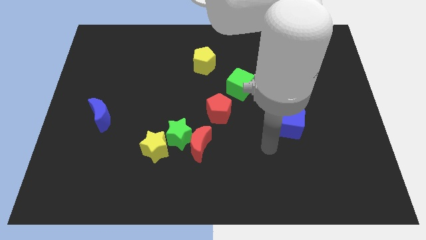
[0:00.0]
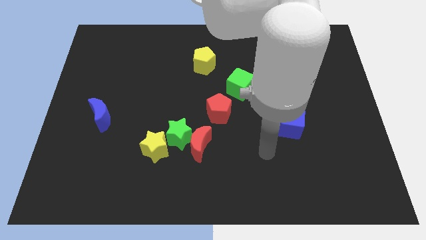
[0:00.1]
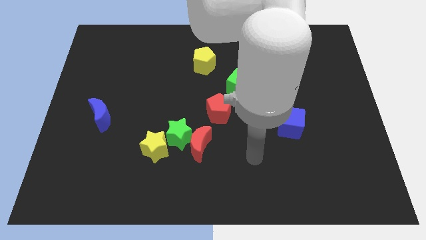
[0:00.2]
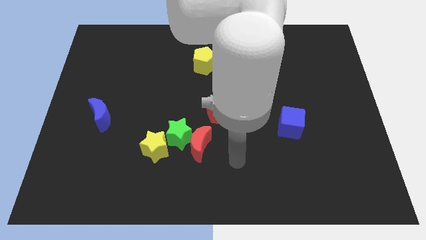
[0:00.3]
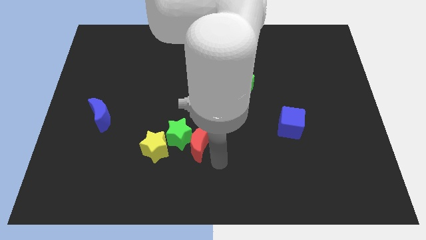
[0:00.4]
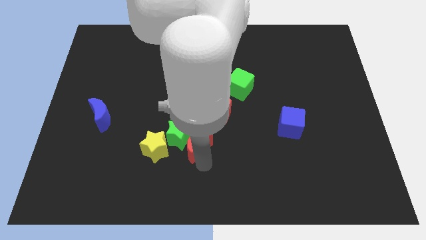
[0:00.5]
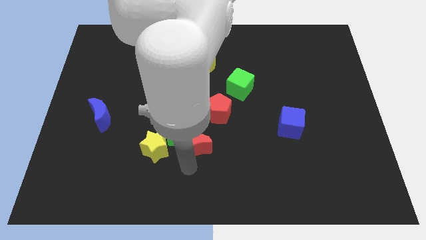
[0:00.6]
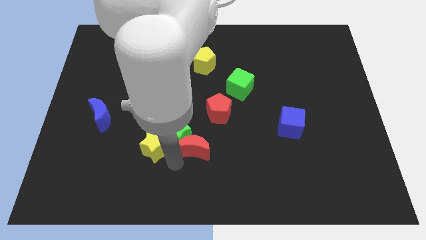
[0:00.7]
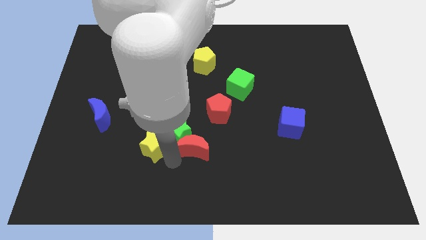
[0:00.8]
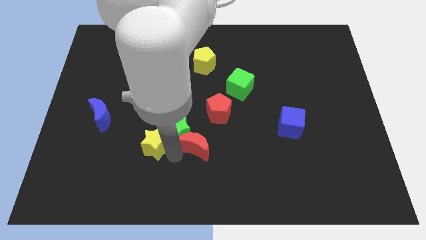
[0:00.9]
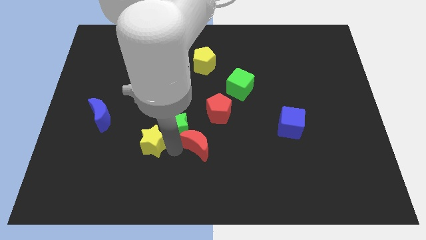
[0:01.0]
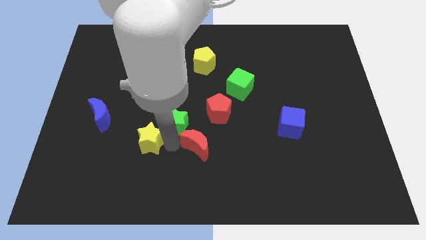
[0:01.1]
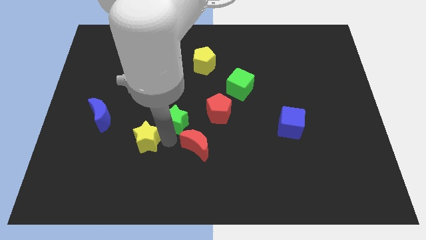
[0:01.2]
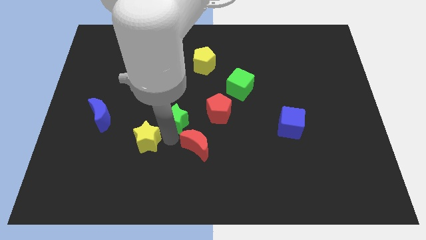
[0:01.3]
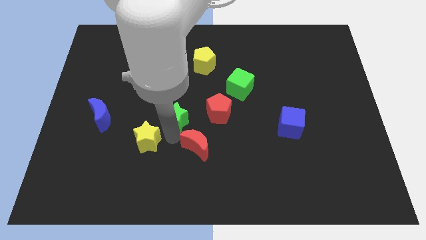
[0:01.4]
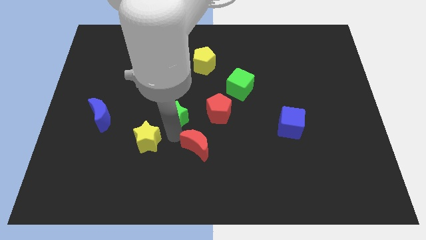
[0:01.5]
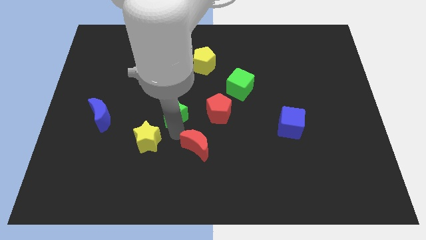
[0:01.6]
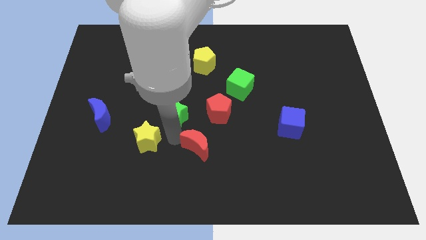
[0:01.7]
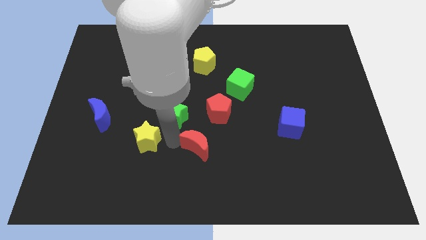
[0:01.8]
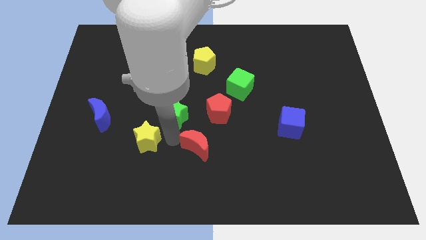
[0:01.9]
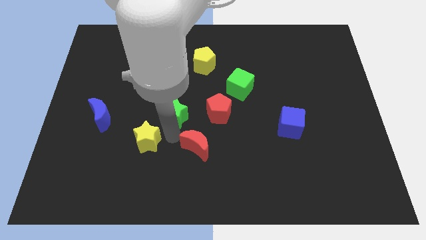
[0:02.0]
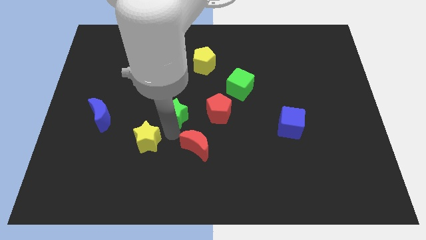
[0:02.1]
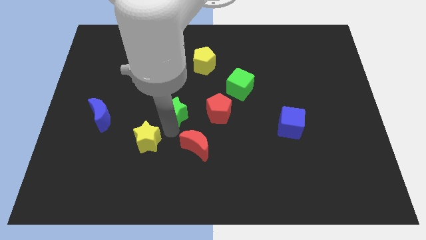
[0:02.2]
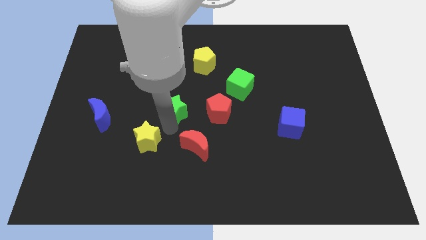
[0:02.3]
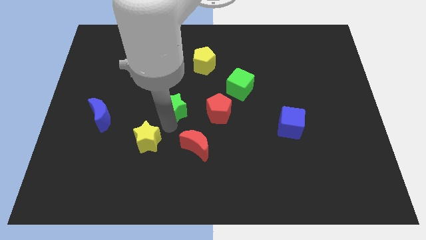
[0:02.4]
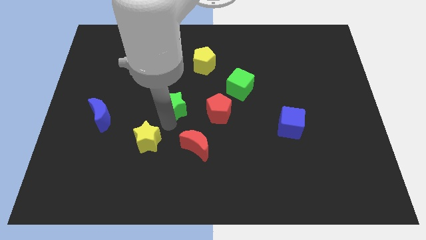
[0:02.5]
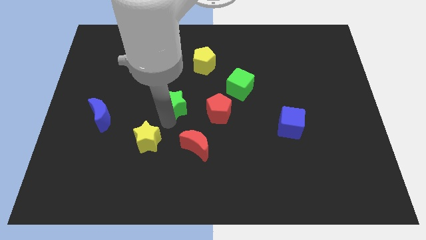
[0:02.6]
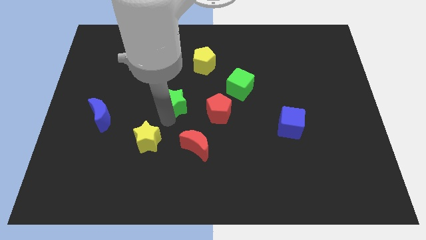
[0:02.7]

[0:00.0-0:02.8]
separate the green star from the red moon and yellow star

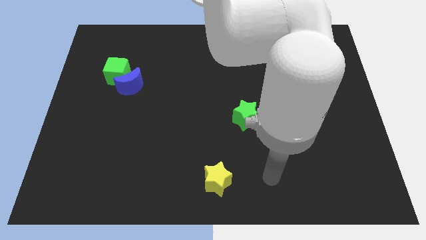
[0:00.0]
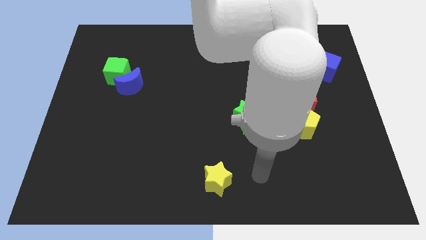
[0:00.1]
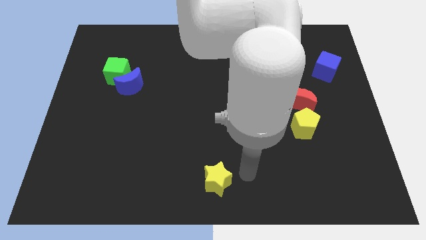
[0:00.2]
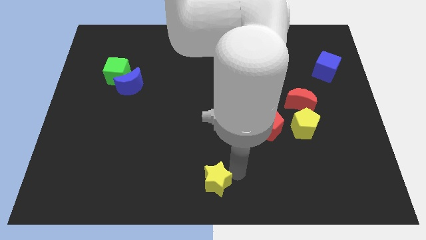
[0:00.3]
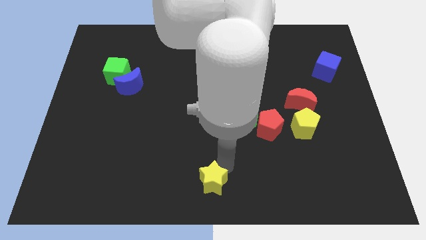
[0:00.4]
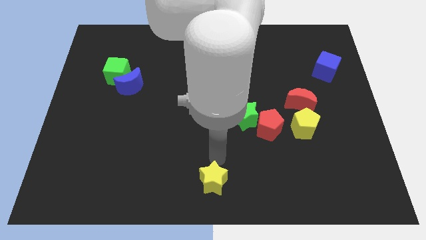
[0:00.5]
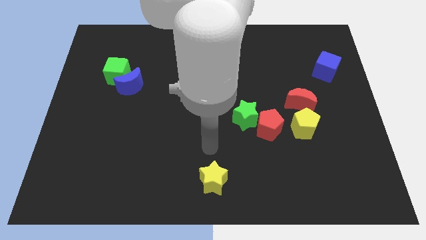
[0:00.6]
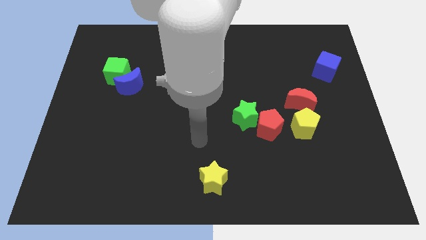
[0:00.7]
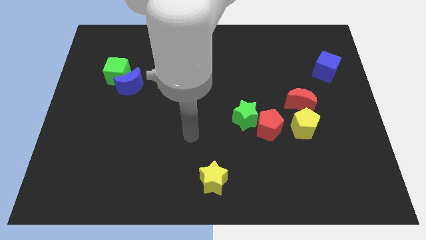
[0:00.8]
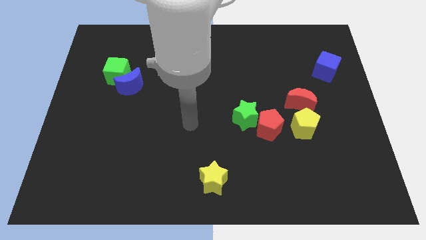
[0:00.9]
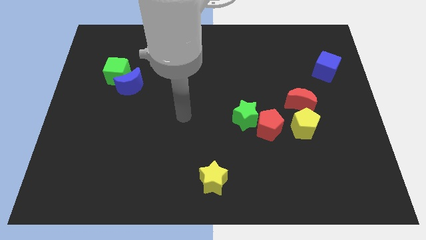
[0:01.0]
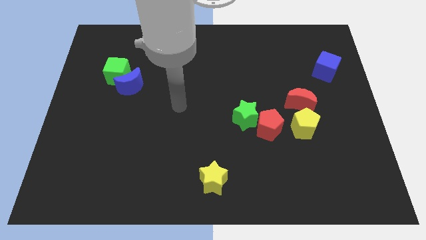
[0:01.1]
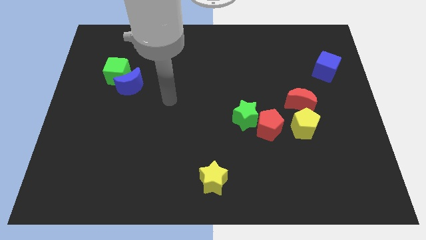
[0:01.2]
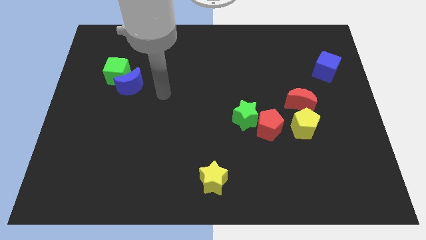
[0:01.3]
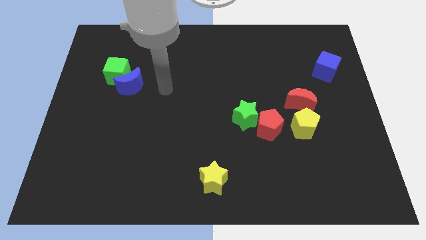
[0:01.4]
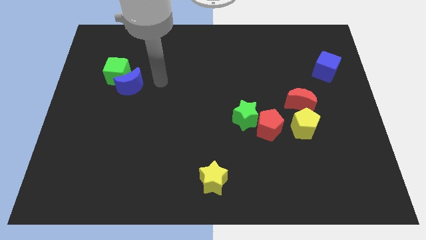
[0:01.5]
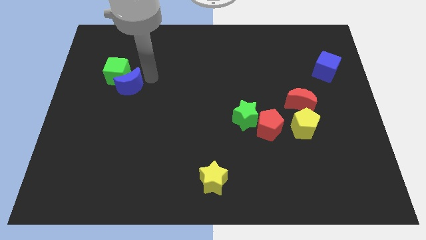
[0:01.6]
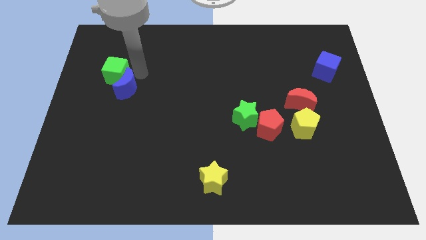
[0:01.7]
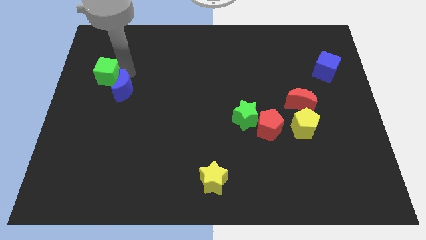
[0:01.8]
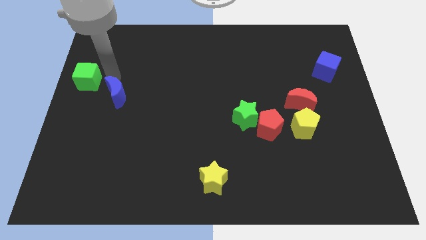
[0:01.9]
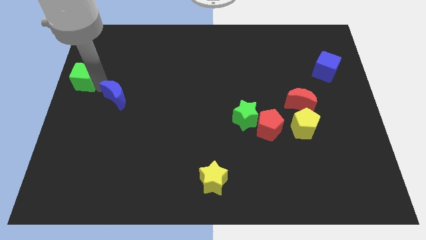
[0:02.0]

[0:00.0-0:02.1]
pull the blue moon apart from the green cube

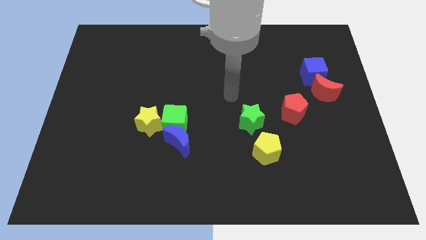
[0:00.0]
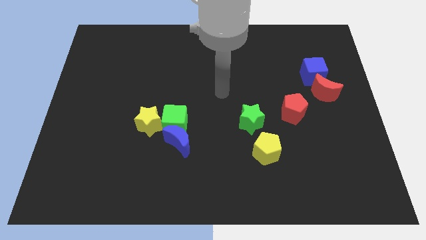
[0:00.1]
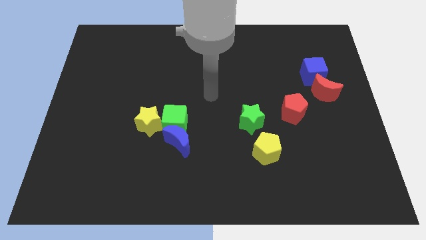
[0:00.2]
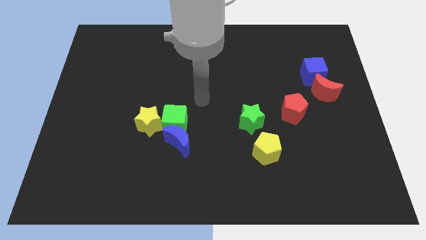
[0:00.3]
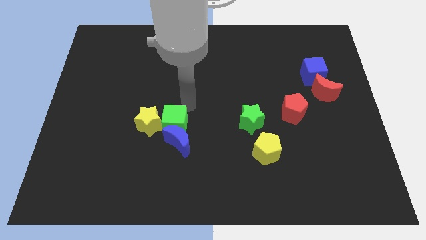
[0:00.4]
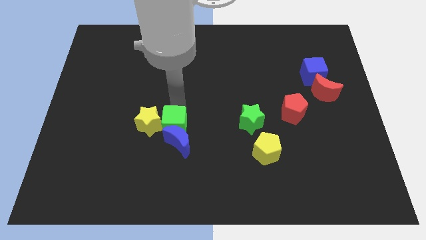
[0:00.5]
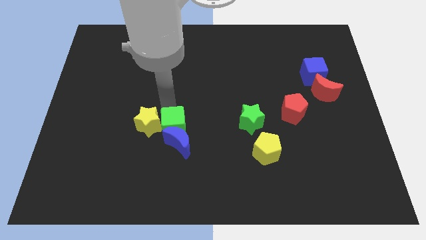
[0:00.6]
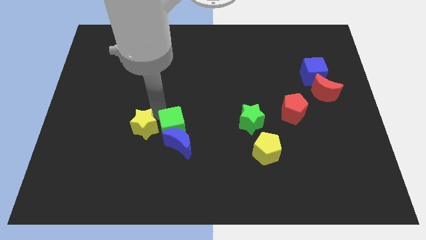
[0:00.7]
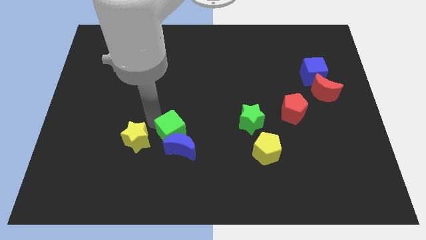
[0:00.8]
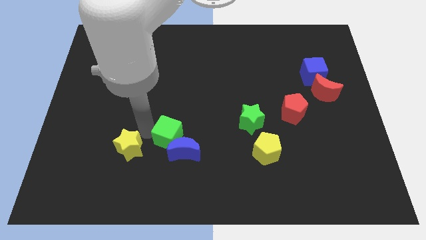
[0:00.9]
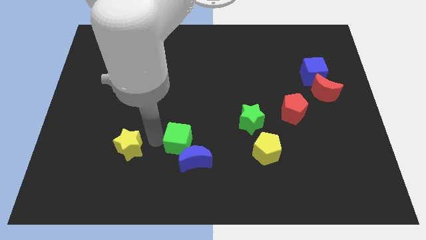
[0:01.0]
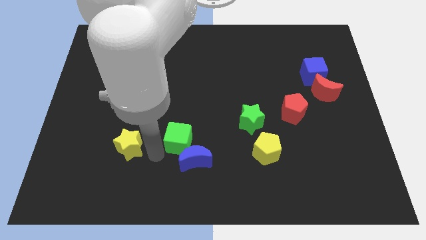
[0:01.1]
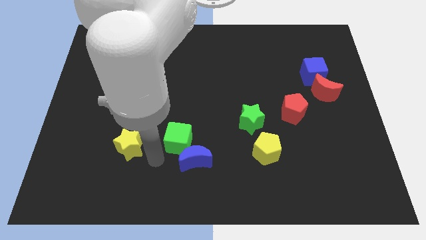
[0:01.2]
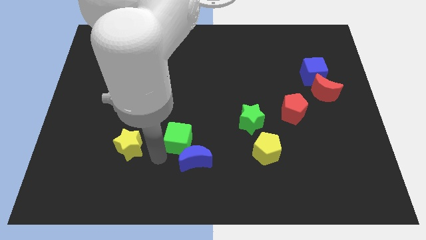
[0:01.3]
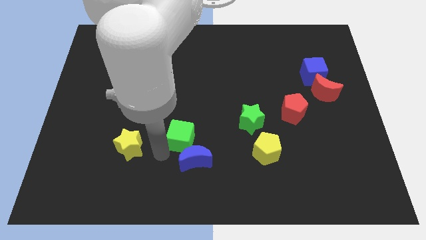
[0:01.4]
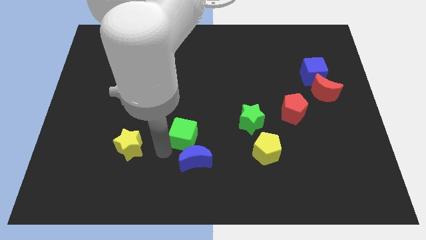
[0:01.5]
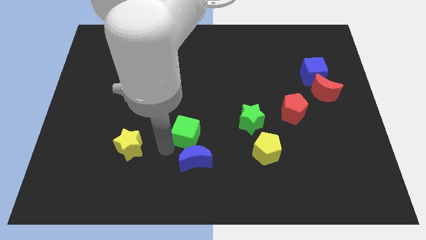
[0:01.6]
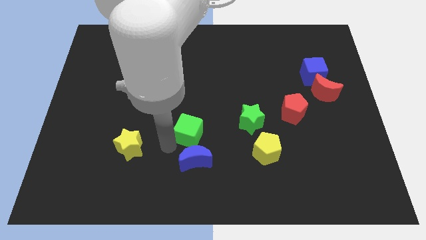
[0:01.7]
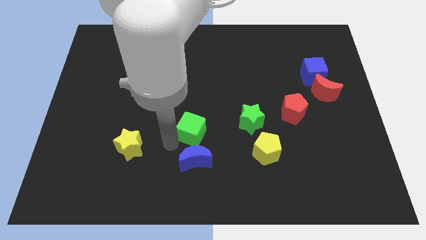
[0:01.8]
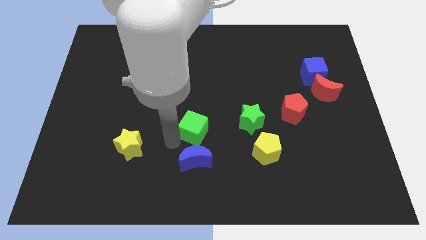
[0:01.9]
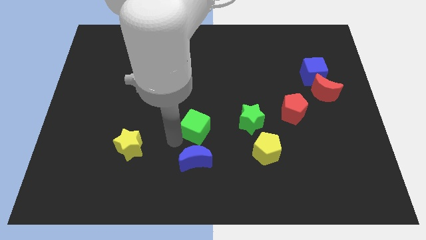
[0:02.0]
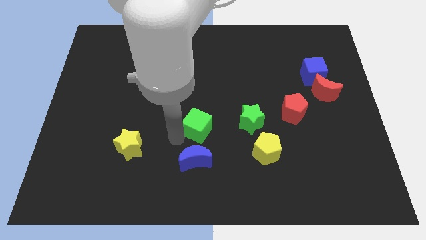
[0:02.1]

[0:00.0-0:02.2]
pull the green cube apart from the blue moon and yellow star

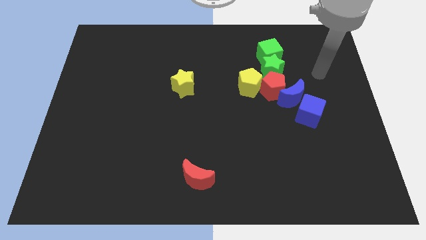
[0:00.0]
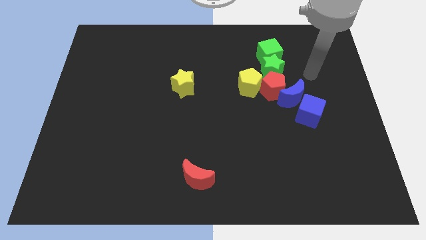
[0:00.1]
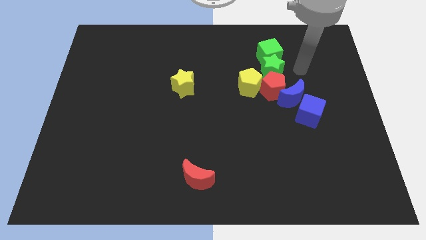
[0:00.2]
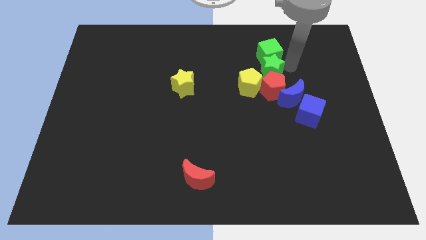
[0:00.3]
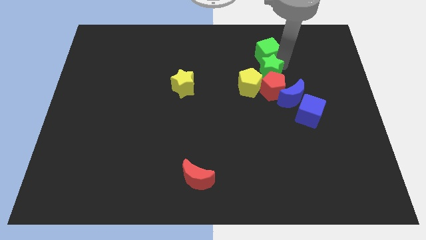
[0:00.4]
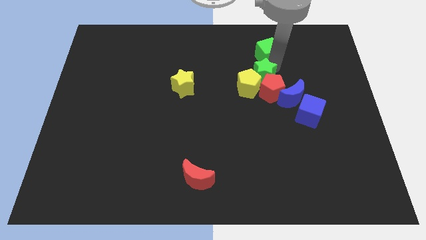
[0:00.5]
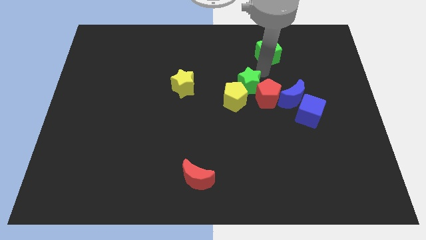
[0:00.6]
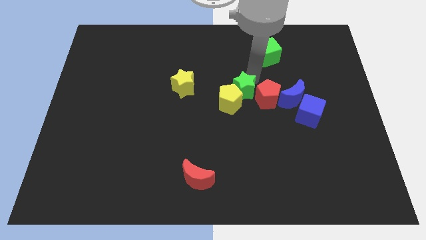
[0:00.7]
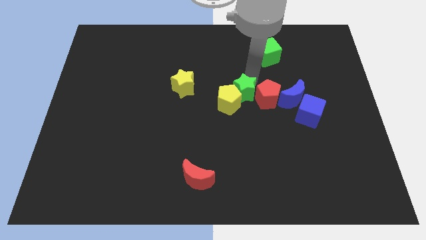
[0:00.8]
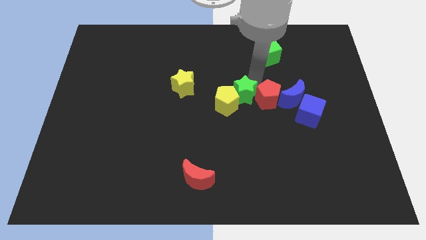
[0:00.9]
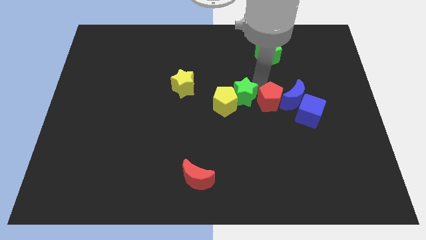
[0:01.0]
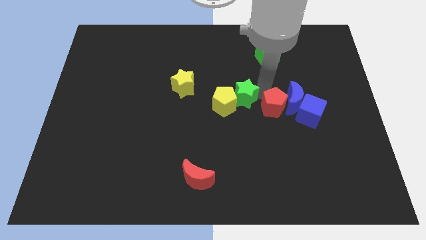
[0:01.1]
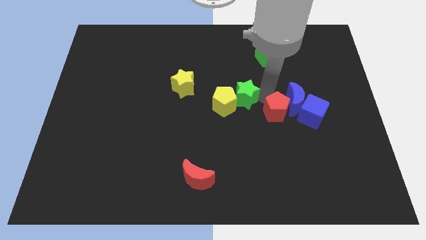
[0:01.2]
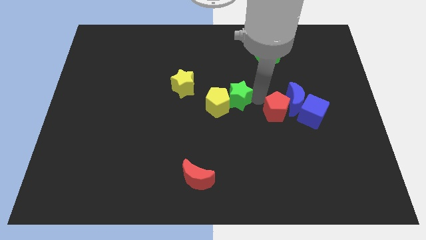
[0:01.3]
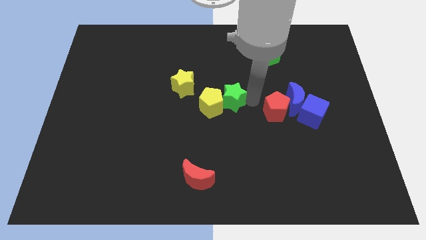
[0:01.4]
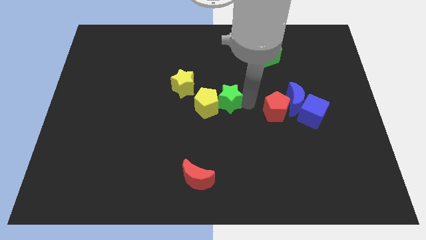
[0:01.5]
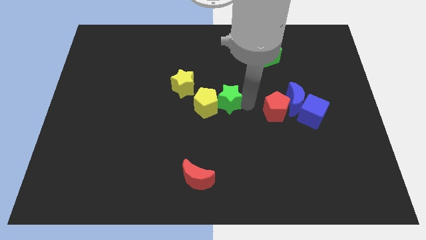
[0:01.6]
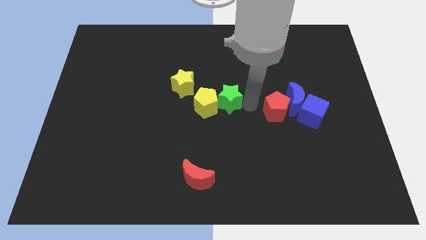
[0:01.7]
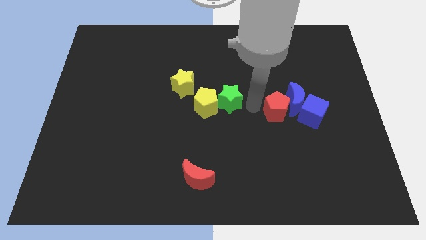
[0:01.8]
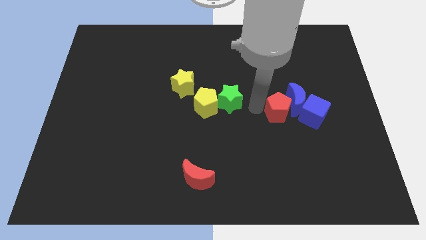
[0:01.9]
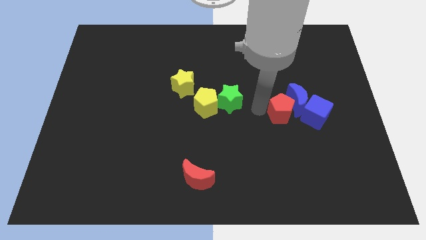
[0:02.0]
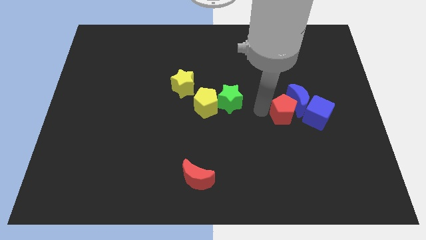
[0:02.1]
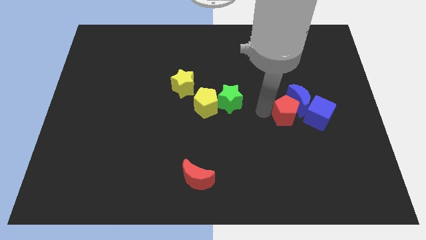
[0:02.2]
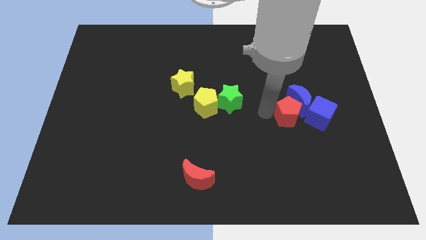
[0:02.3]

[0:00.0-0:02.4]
separate the red pentagon from the group of blocks
